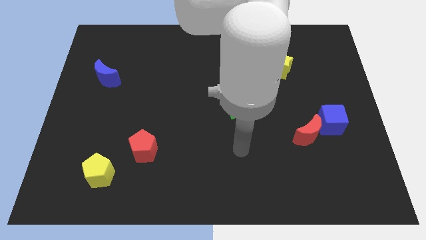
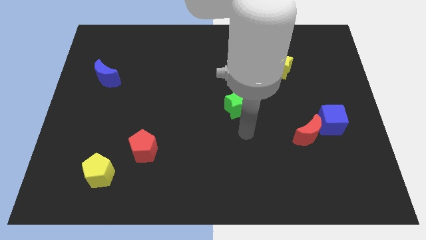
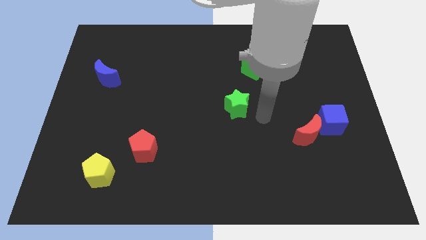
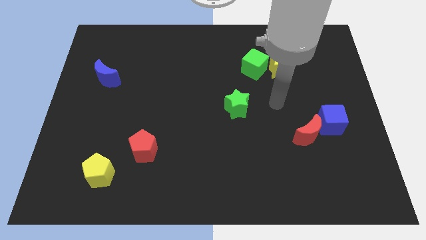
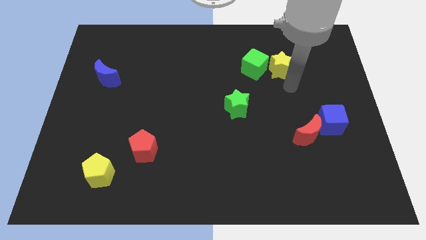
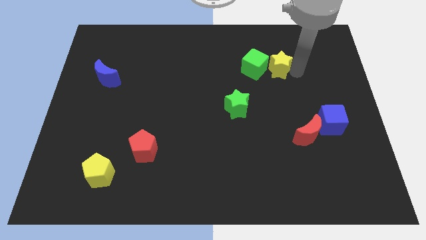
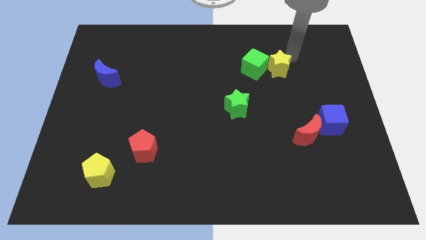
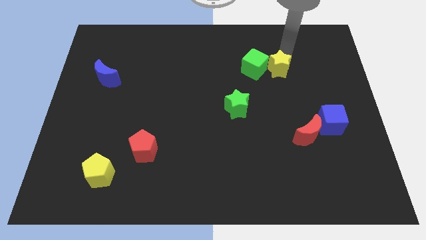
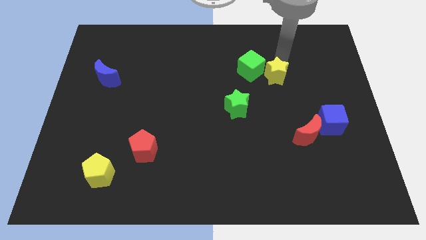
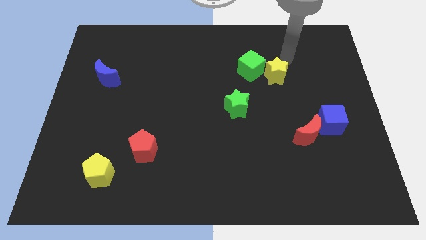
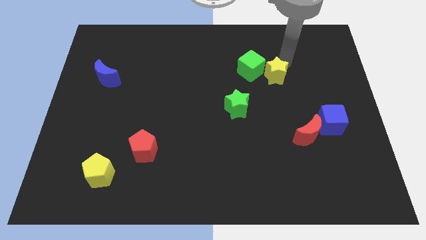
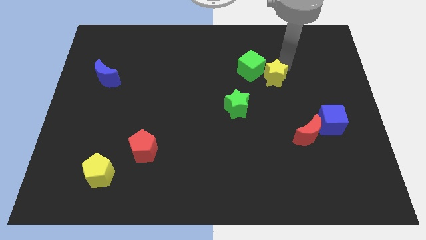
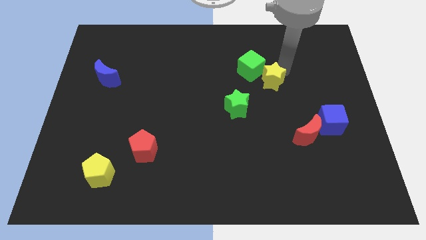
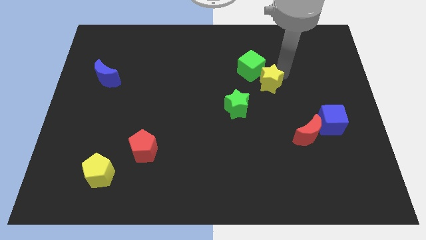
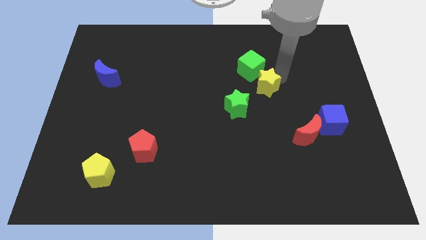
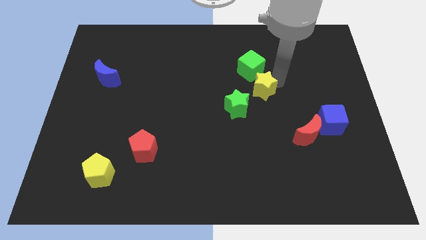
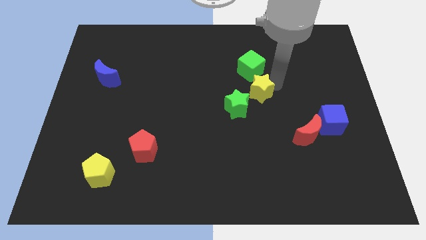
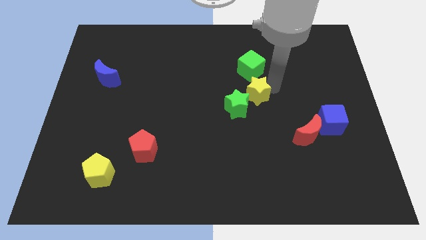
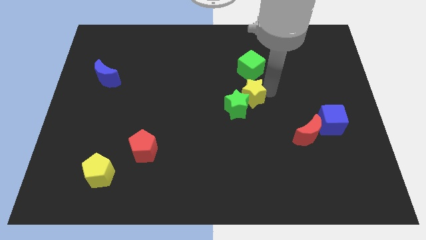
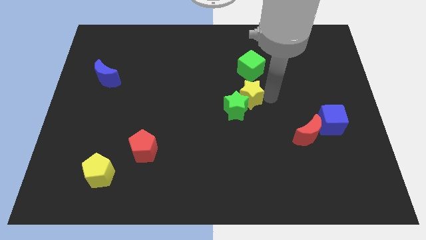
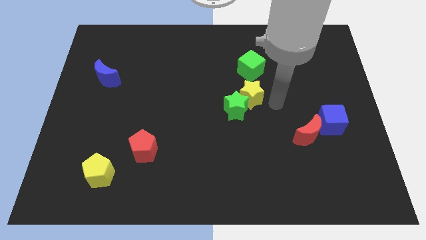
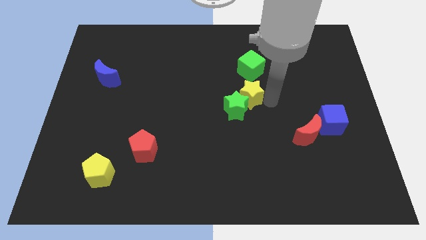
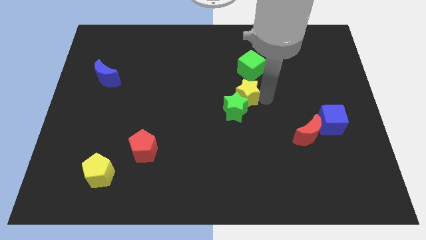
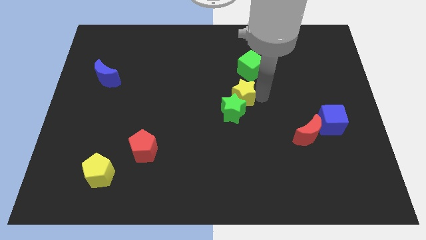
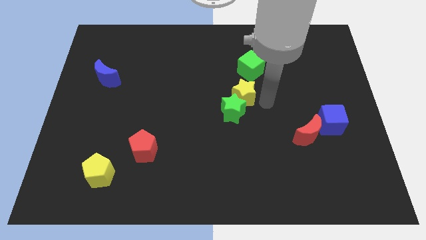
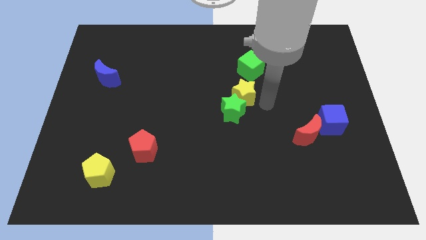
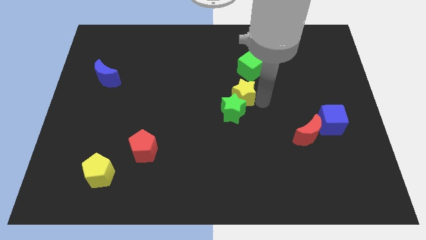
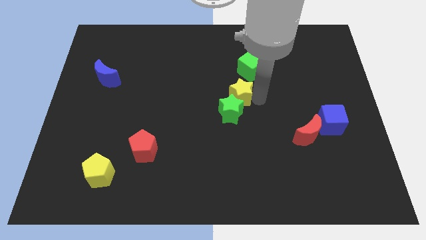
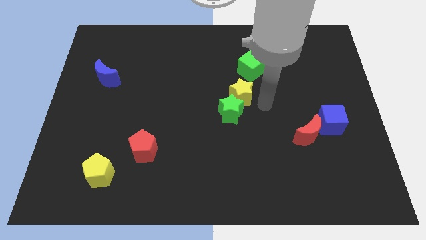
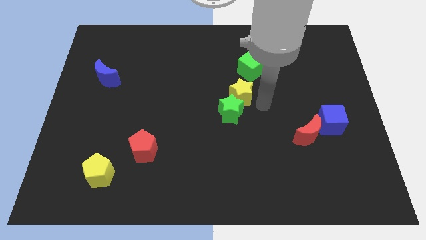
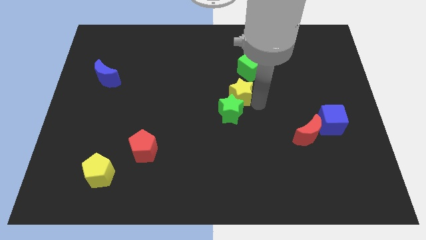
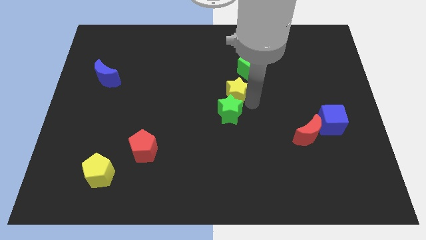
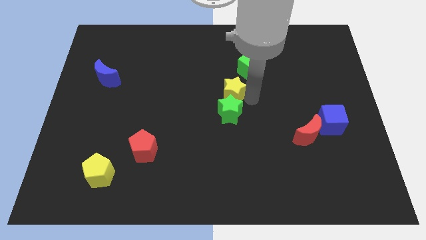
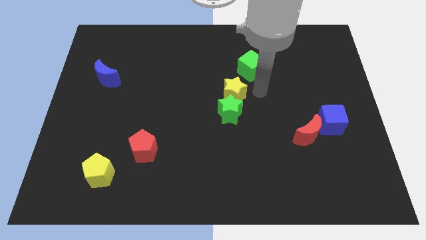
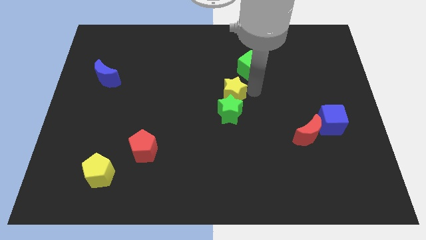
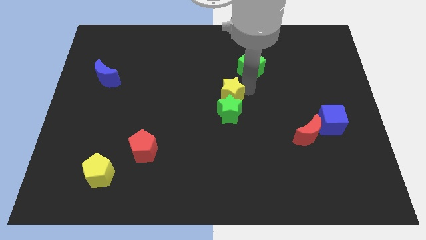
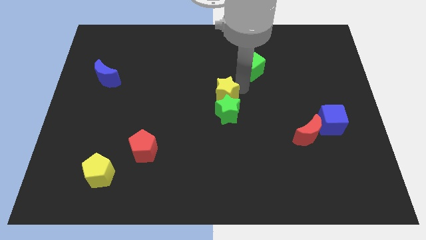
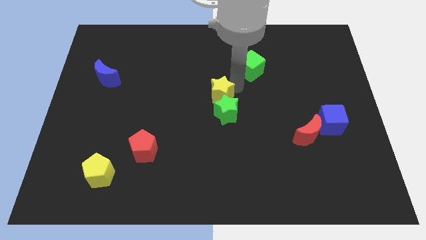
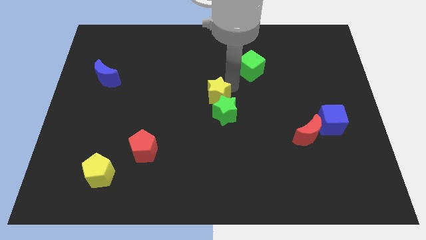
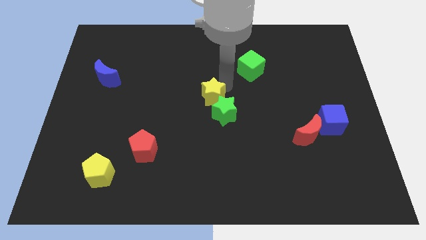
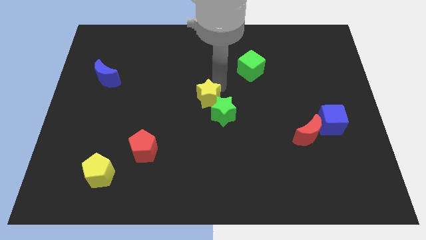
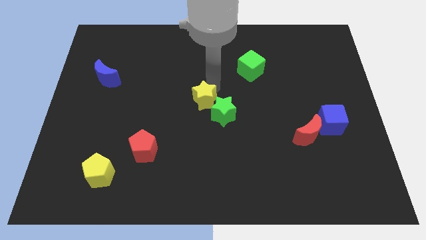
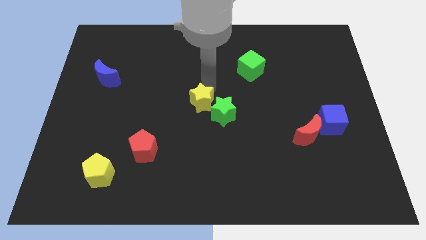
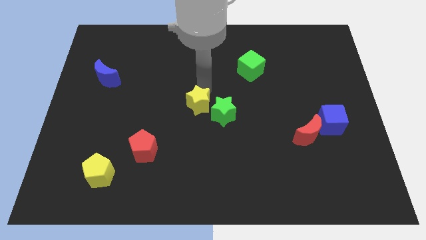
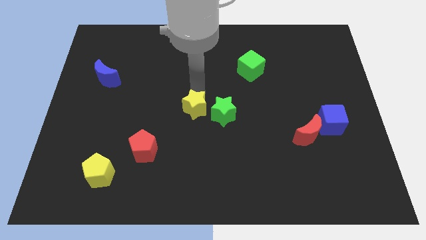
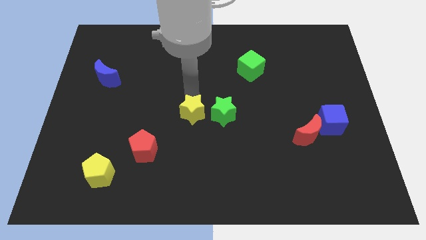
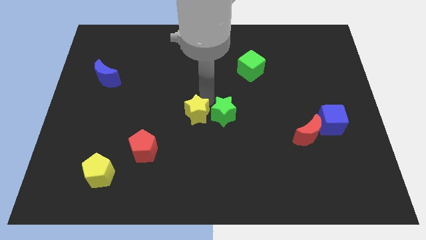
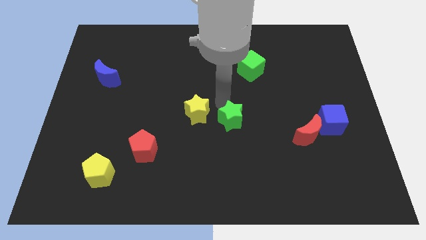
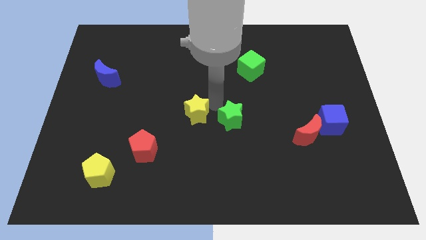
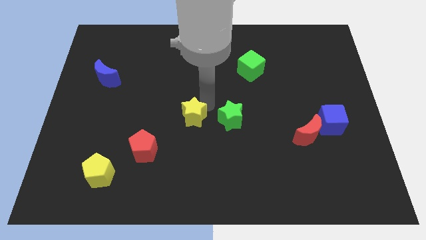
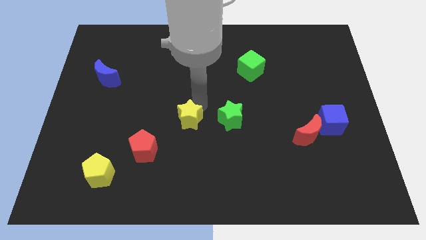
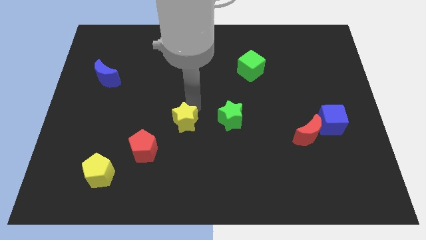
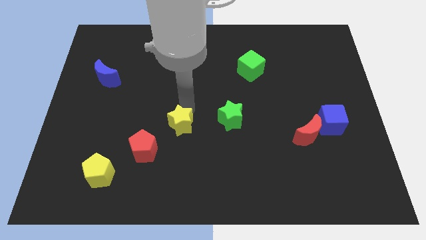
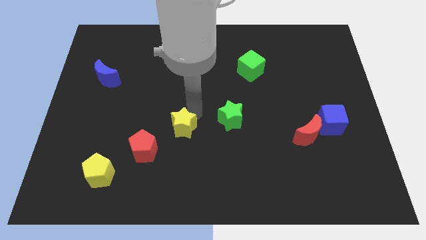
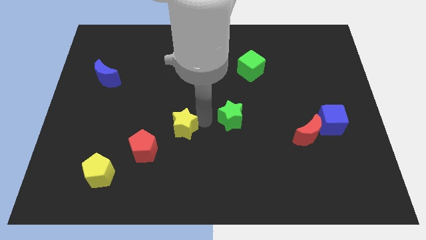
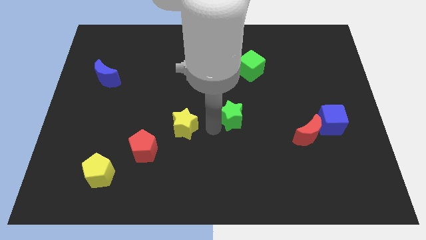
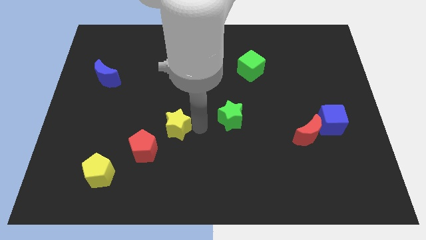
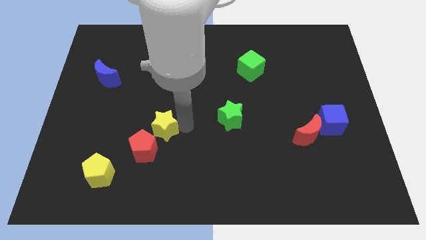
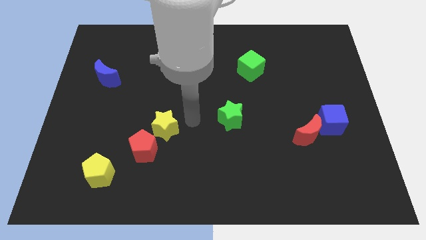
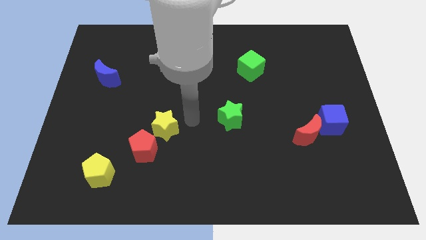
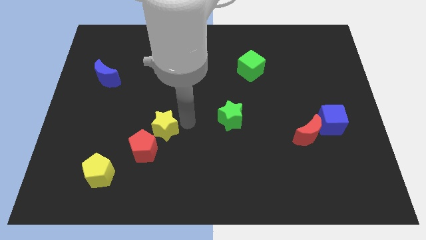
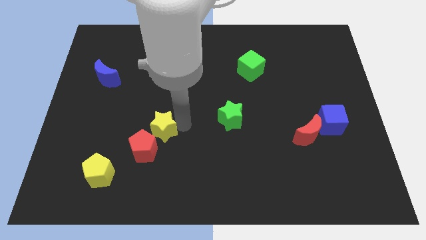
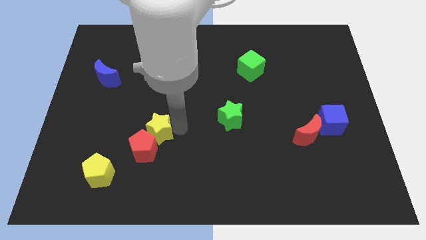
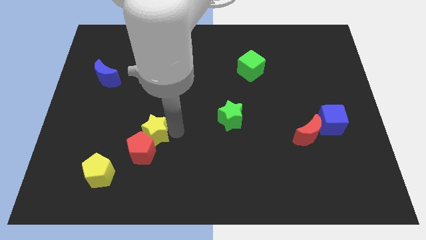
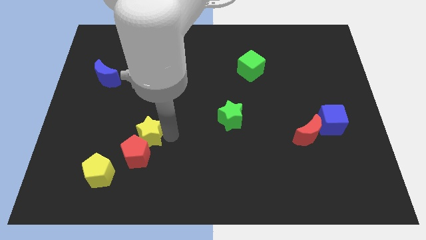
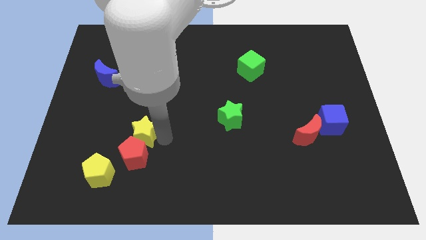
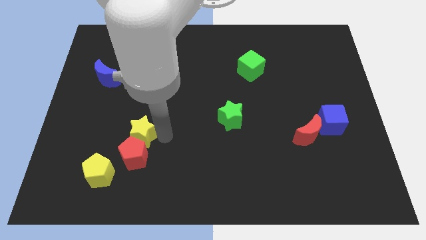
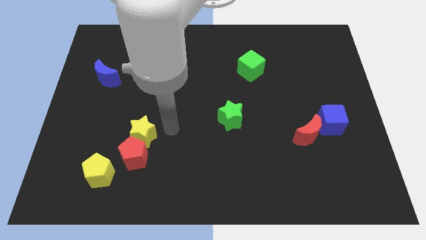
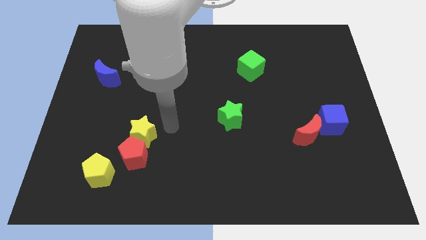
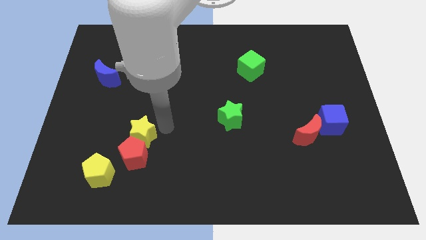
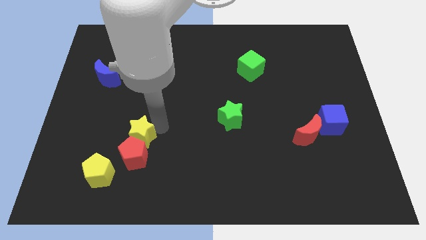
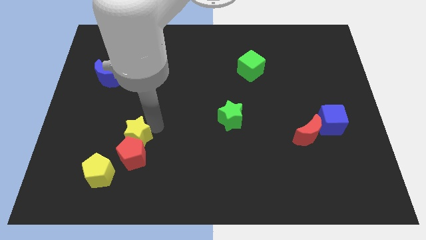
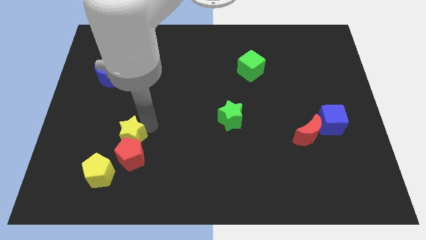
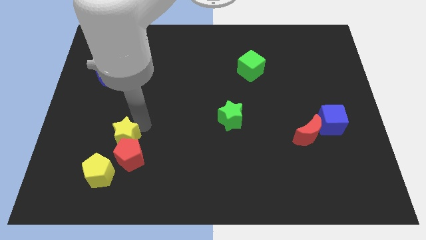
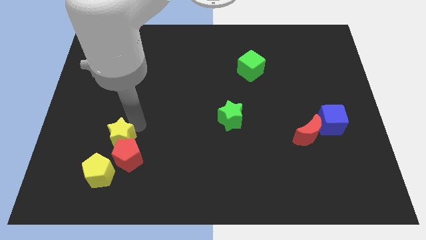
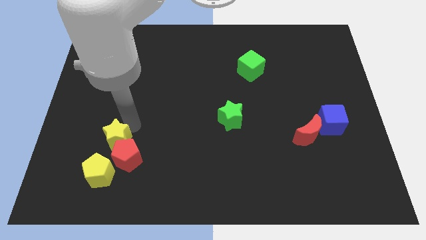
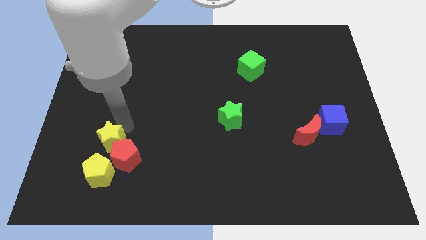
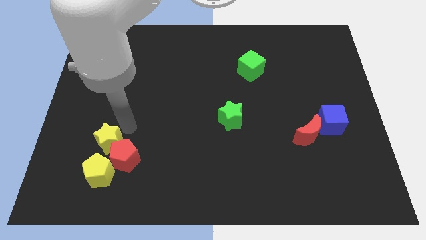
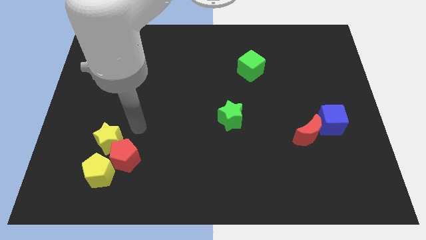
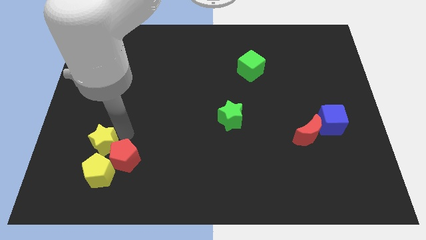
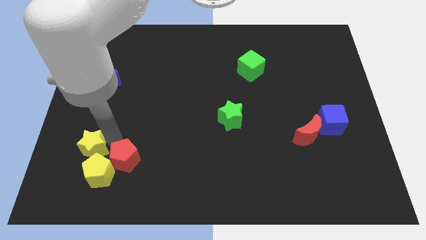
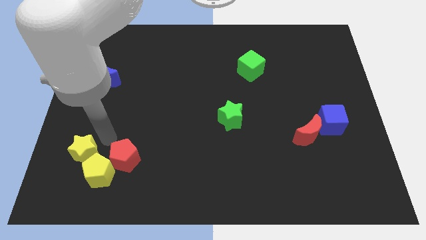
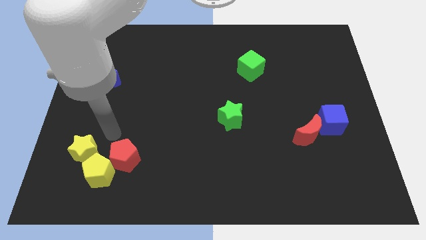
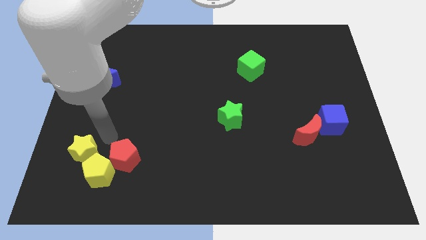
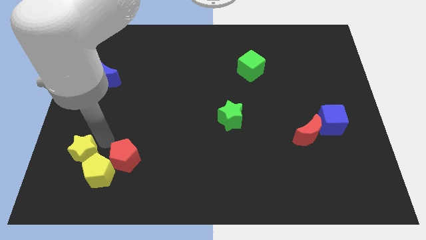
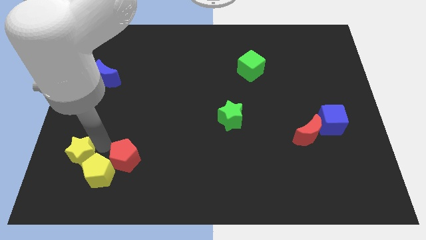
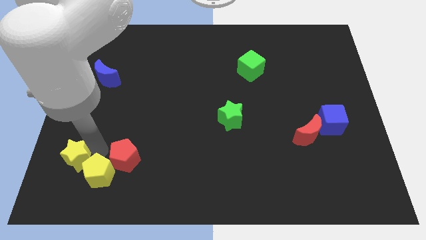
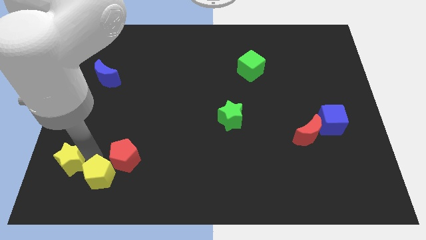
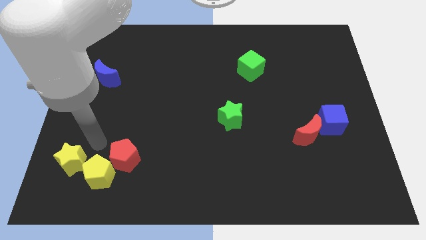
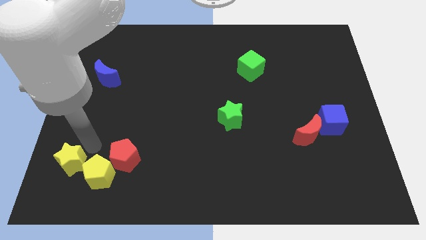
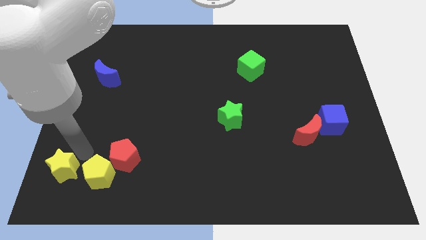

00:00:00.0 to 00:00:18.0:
move the yellow star to the bottom left corner
